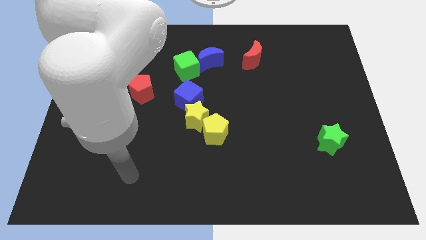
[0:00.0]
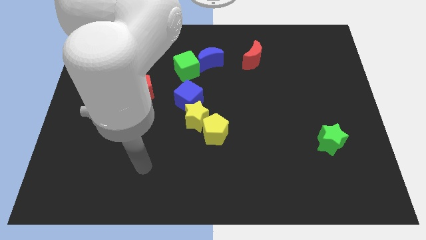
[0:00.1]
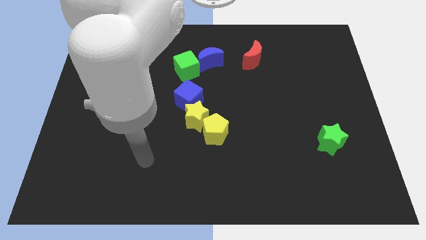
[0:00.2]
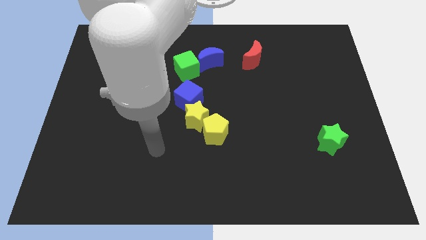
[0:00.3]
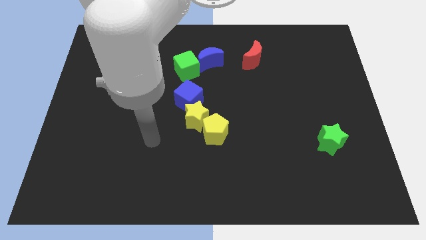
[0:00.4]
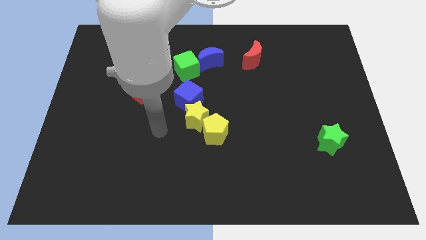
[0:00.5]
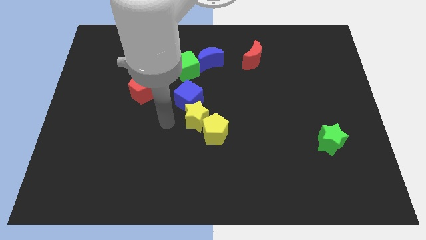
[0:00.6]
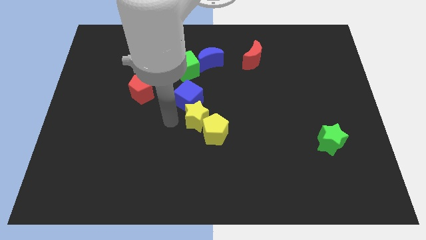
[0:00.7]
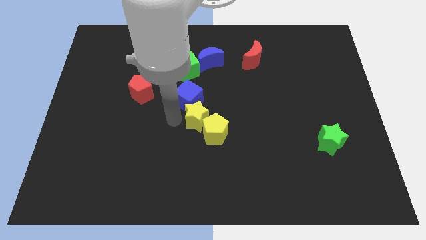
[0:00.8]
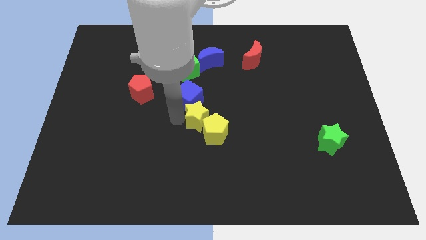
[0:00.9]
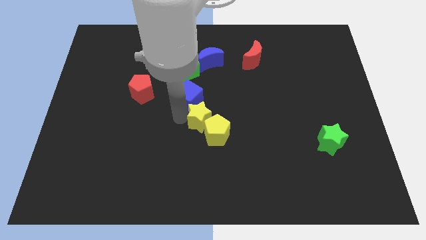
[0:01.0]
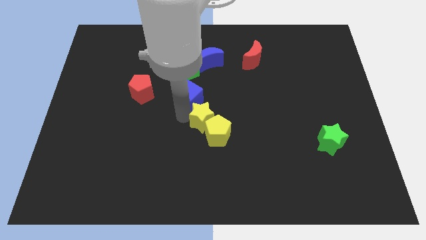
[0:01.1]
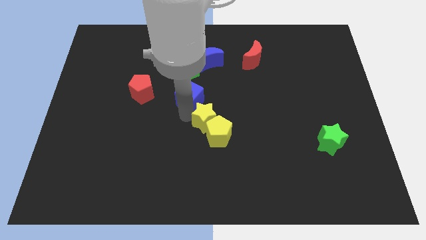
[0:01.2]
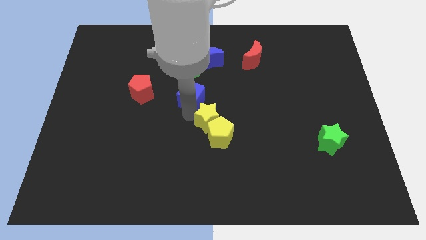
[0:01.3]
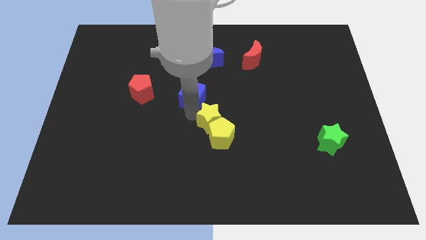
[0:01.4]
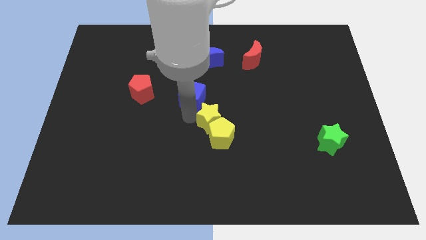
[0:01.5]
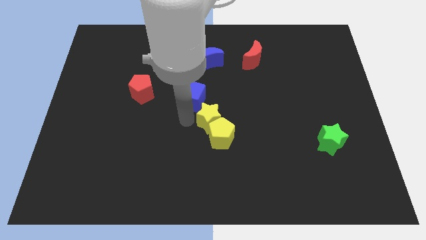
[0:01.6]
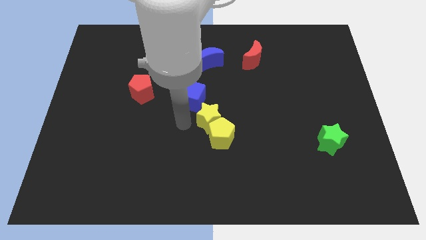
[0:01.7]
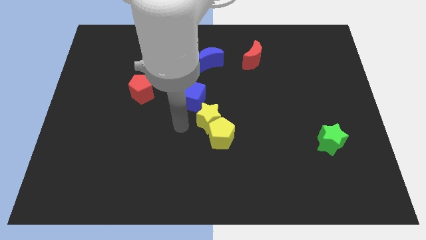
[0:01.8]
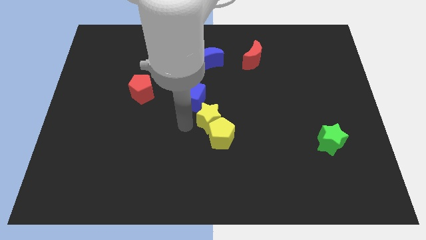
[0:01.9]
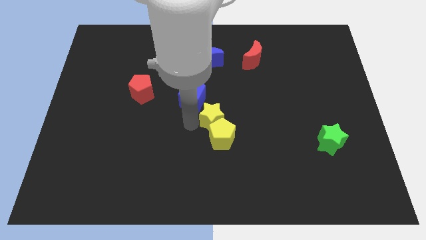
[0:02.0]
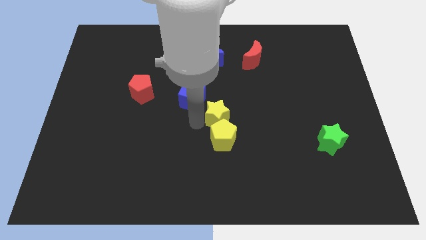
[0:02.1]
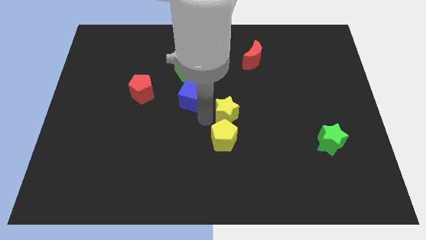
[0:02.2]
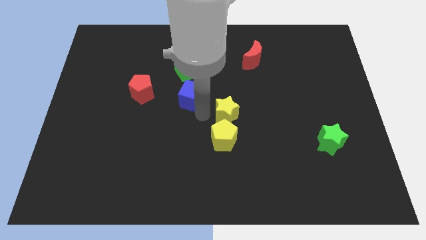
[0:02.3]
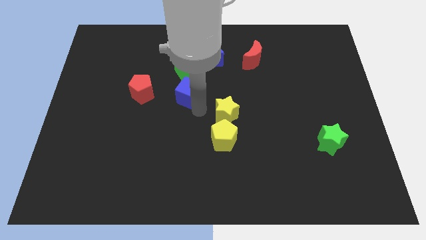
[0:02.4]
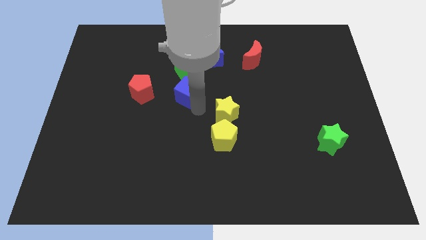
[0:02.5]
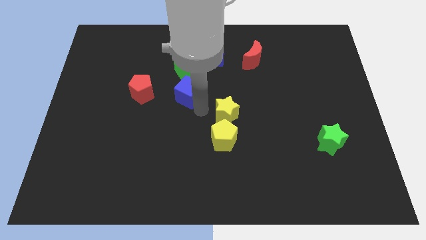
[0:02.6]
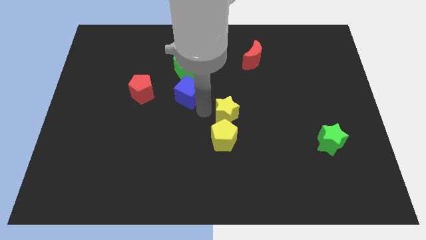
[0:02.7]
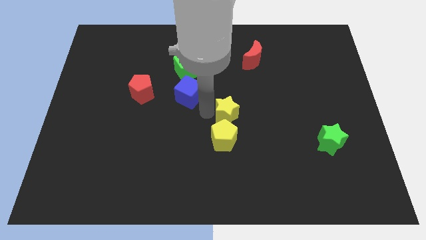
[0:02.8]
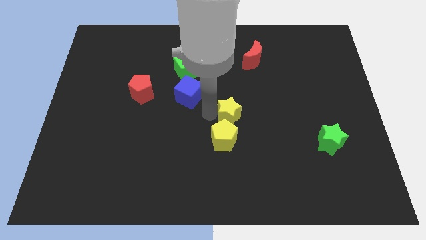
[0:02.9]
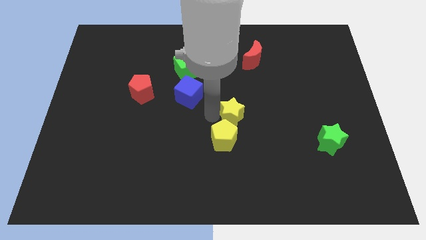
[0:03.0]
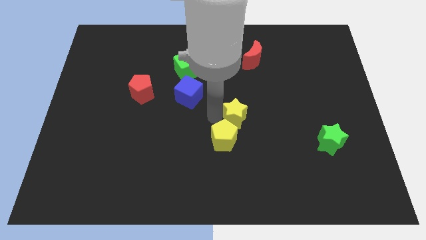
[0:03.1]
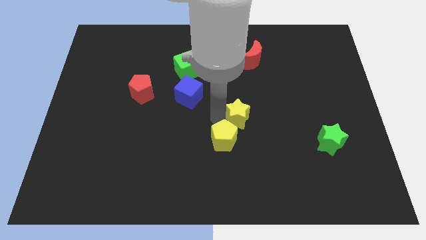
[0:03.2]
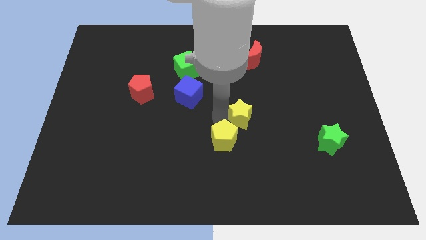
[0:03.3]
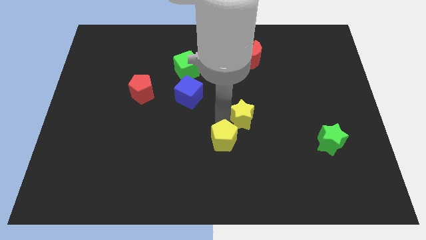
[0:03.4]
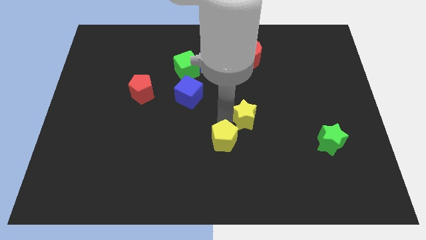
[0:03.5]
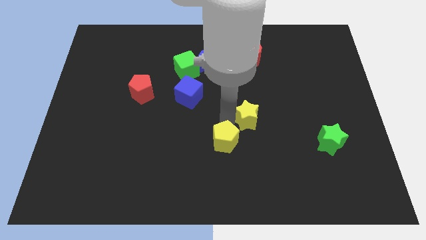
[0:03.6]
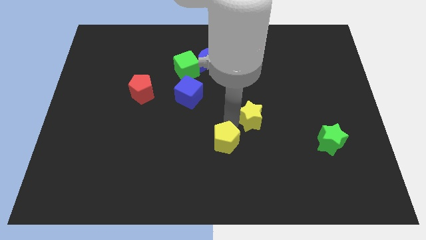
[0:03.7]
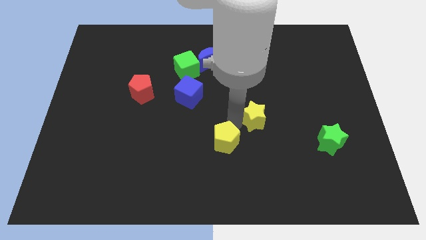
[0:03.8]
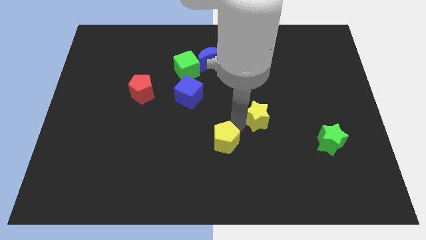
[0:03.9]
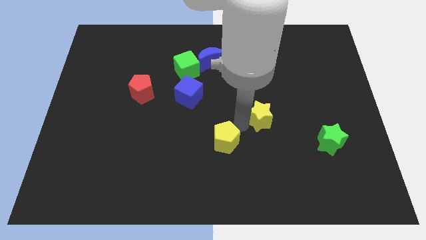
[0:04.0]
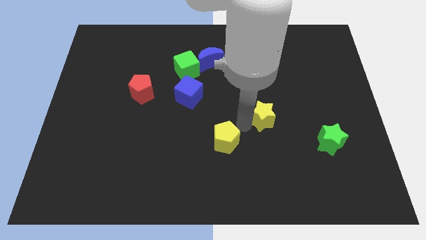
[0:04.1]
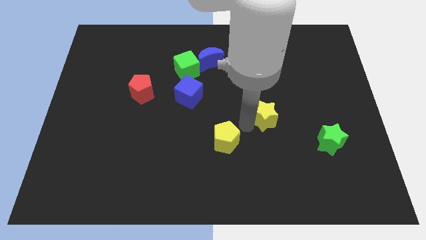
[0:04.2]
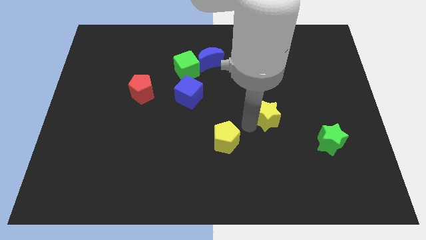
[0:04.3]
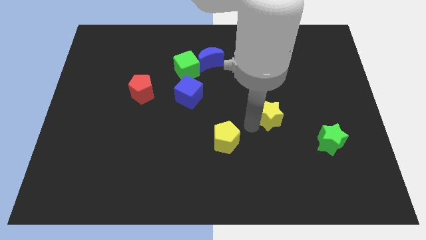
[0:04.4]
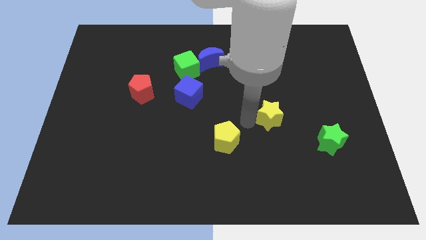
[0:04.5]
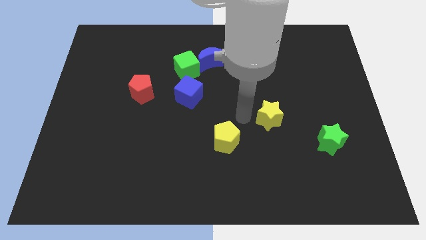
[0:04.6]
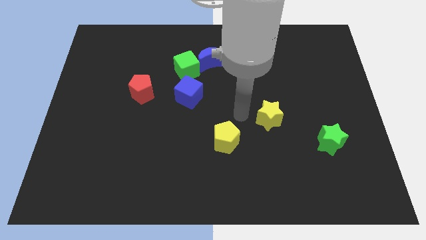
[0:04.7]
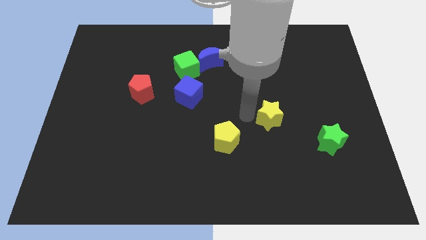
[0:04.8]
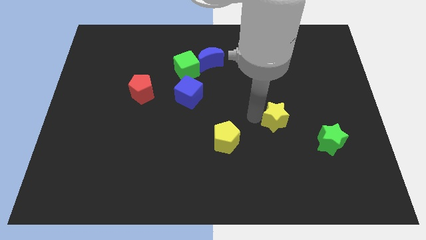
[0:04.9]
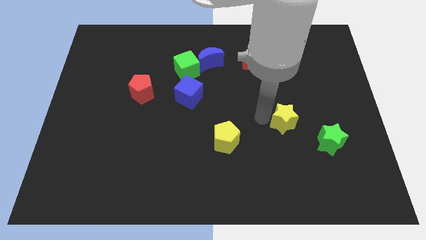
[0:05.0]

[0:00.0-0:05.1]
put the yellow star to the top left side of the green star

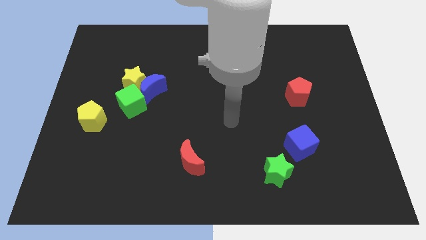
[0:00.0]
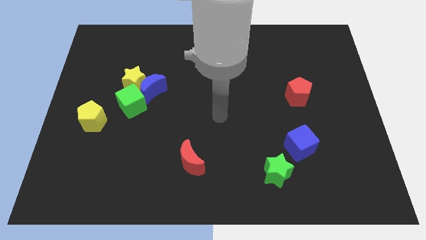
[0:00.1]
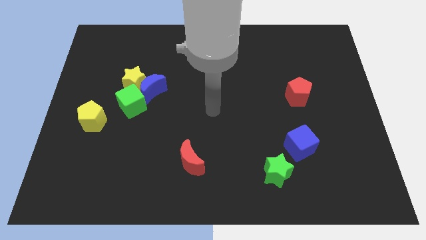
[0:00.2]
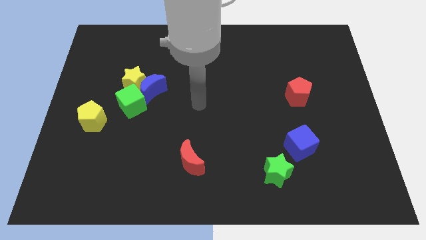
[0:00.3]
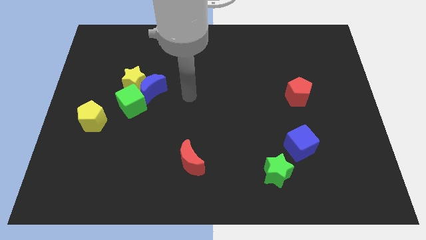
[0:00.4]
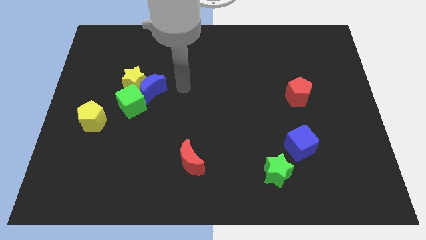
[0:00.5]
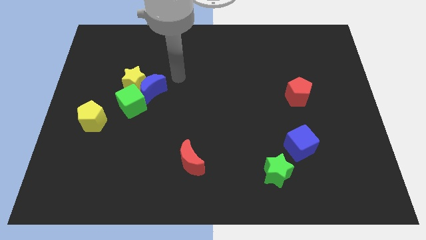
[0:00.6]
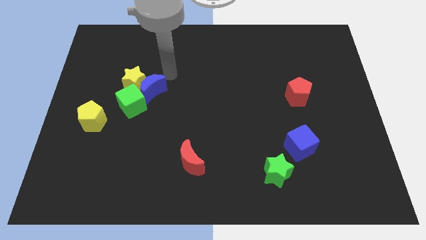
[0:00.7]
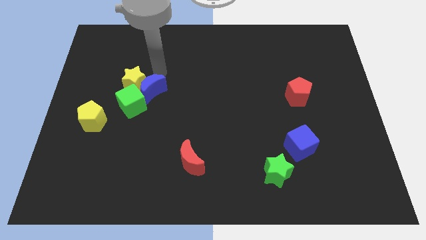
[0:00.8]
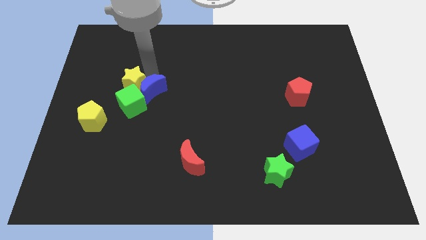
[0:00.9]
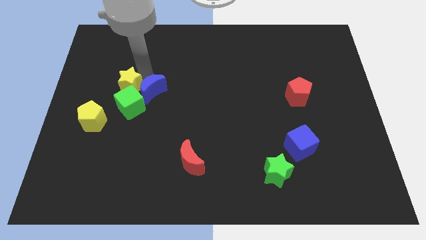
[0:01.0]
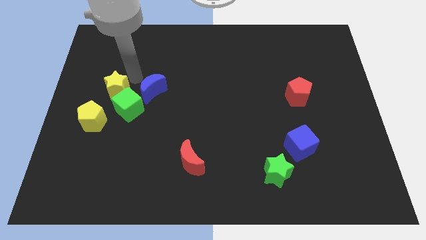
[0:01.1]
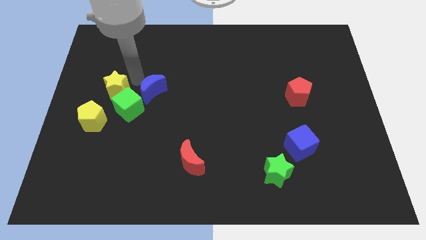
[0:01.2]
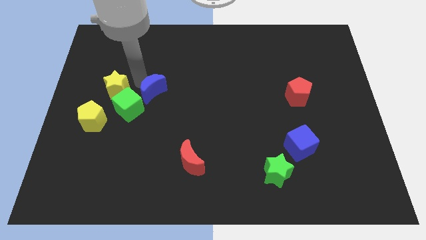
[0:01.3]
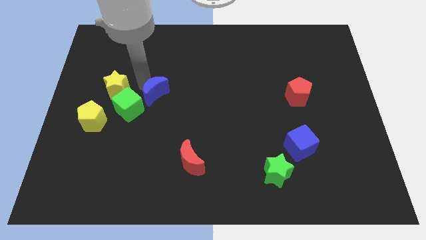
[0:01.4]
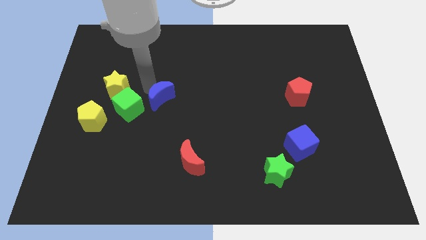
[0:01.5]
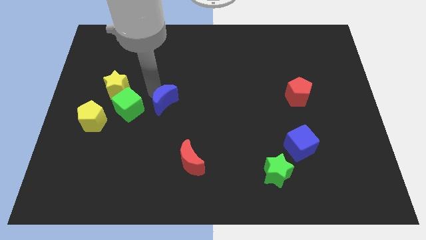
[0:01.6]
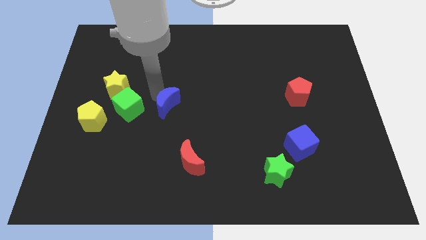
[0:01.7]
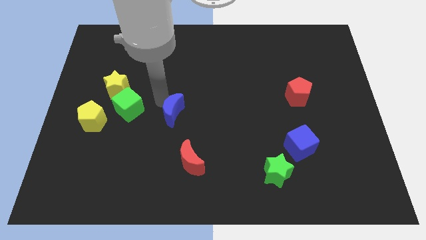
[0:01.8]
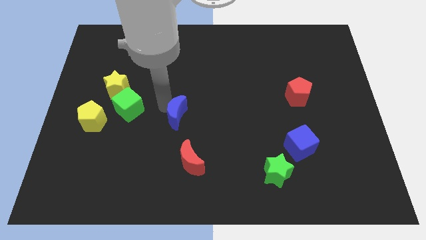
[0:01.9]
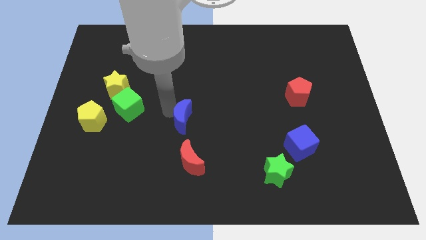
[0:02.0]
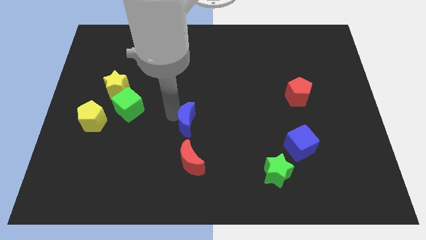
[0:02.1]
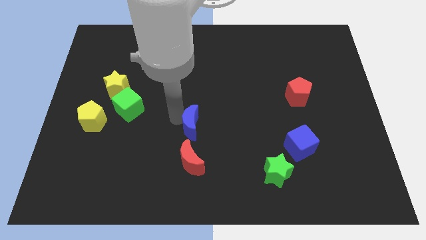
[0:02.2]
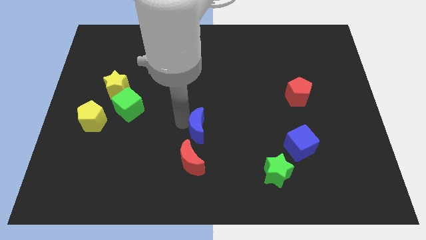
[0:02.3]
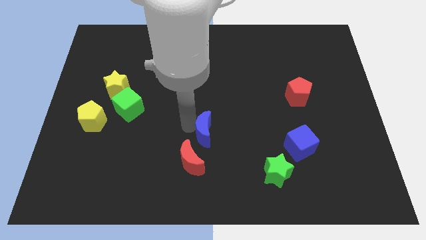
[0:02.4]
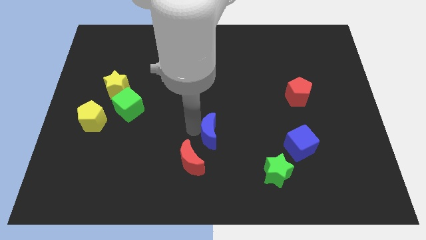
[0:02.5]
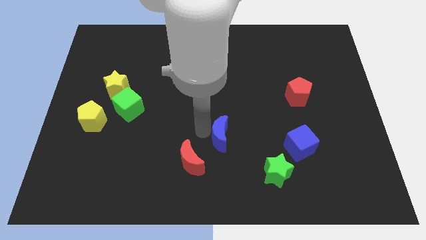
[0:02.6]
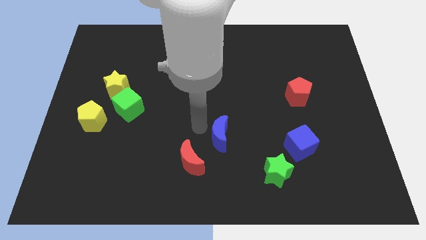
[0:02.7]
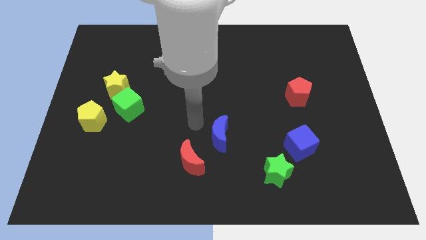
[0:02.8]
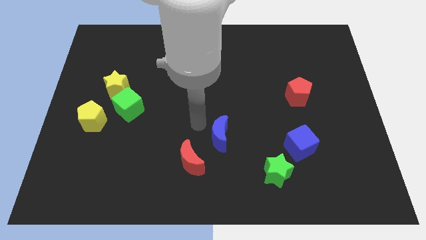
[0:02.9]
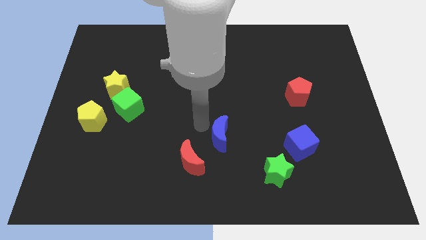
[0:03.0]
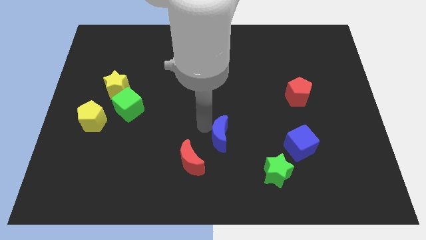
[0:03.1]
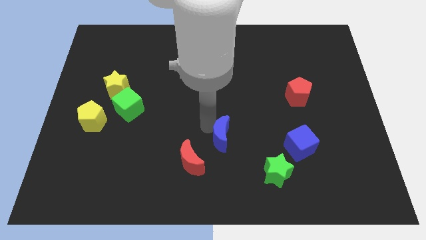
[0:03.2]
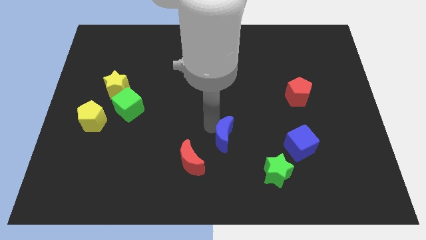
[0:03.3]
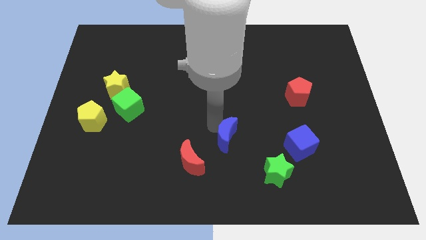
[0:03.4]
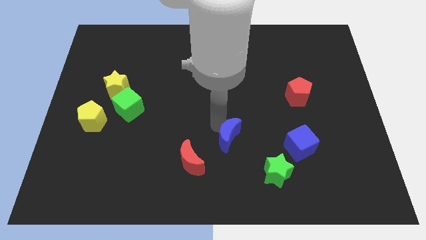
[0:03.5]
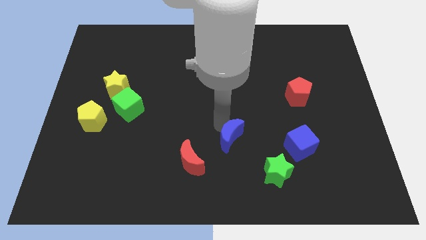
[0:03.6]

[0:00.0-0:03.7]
move the blue moon to the top left of the green star
